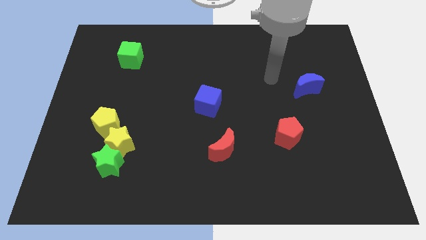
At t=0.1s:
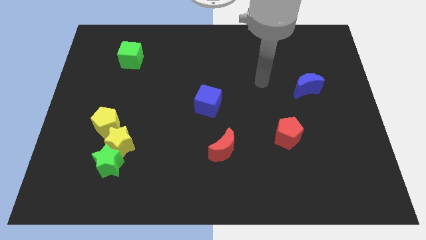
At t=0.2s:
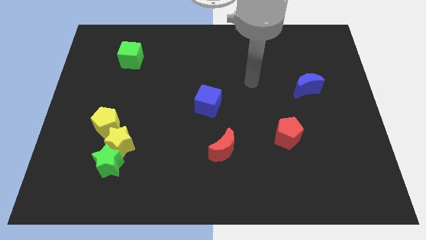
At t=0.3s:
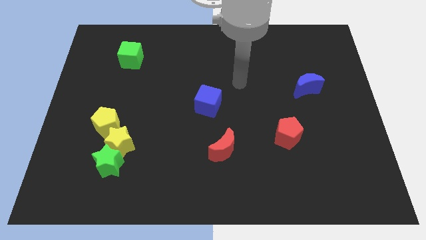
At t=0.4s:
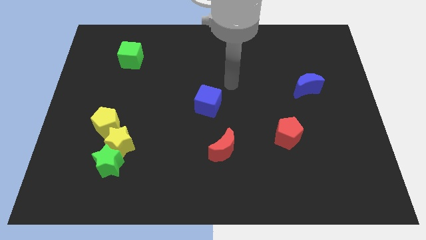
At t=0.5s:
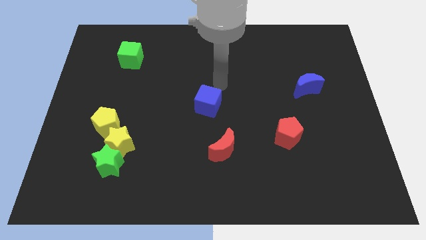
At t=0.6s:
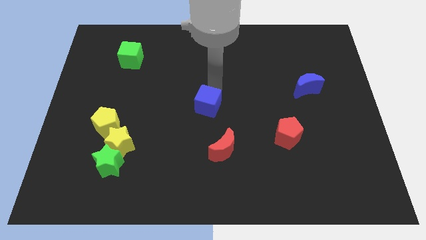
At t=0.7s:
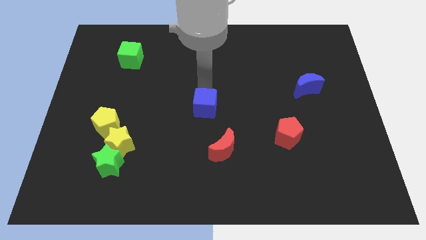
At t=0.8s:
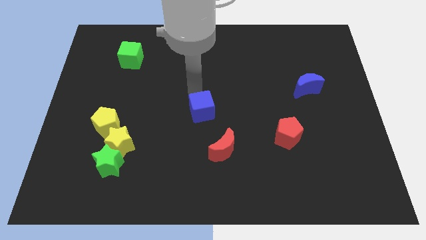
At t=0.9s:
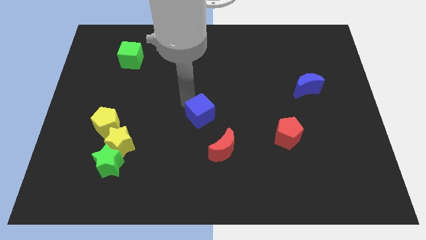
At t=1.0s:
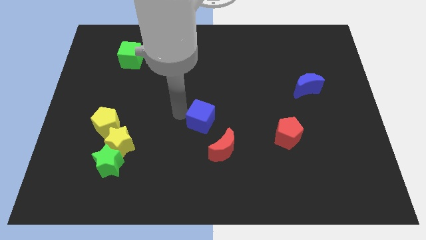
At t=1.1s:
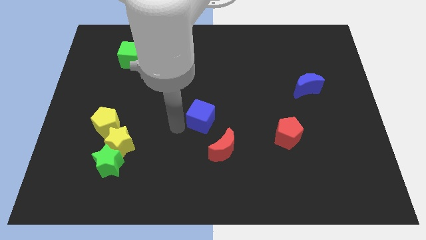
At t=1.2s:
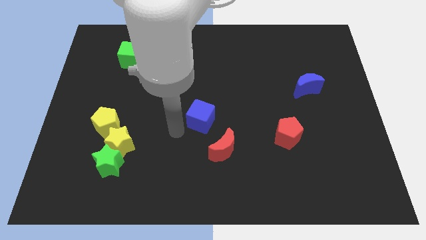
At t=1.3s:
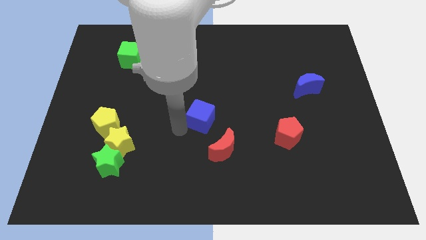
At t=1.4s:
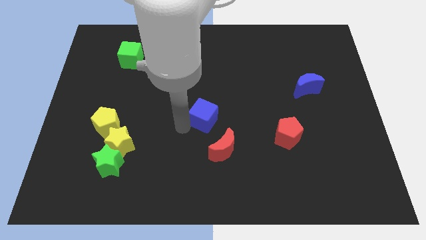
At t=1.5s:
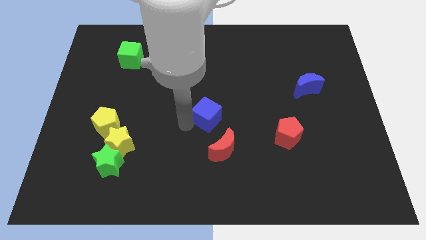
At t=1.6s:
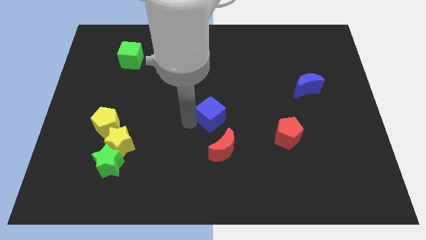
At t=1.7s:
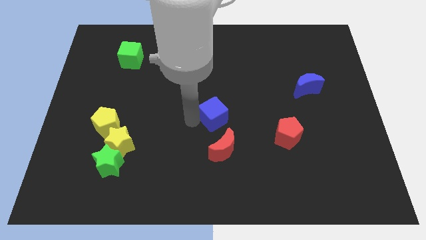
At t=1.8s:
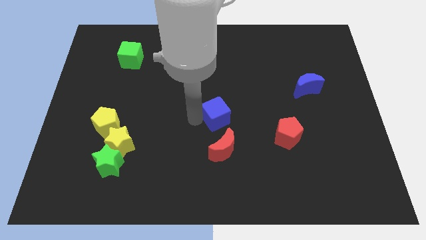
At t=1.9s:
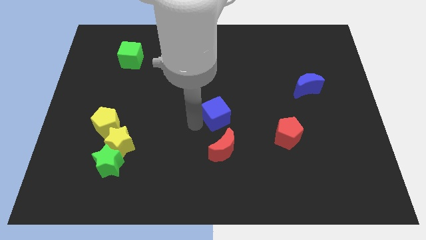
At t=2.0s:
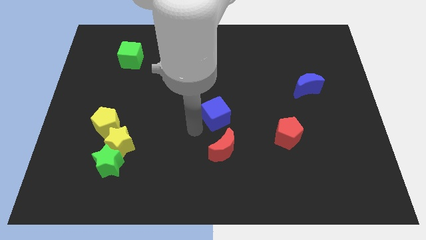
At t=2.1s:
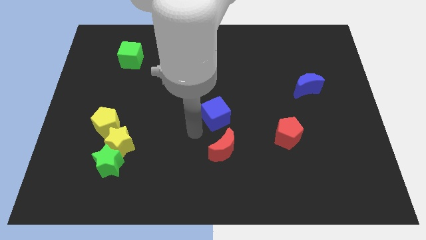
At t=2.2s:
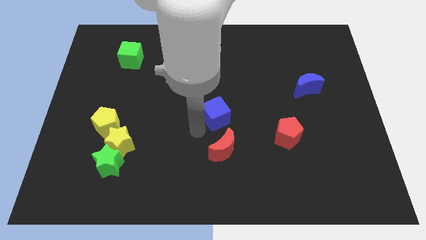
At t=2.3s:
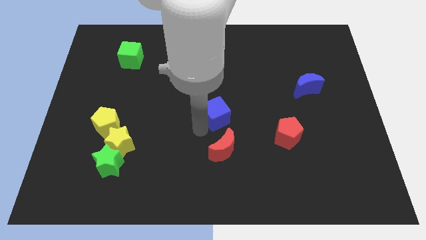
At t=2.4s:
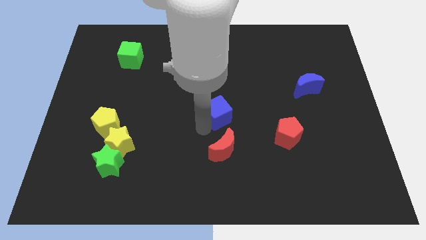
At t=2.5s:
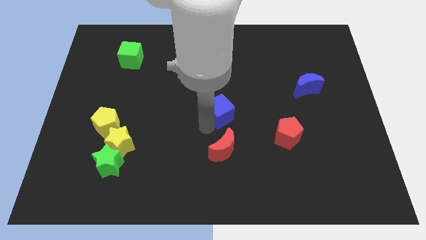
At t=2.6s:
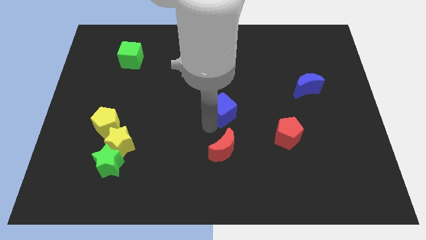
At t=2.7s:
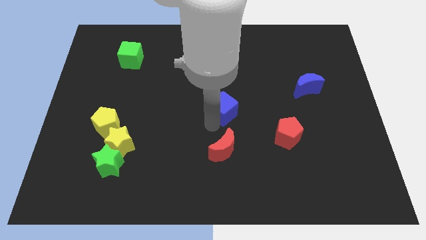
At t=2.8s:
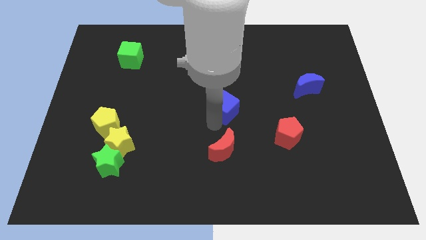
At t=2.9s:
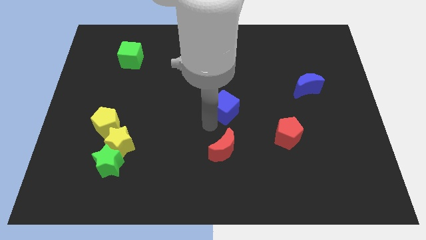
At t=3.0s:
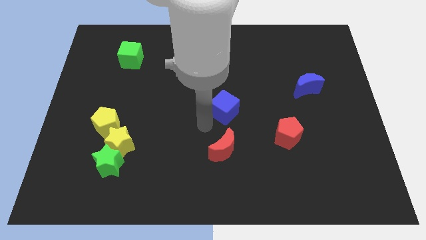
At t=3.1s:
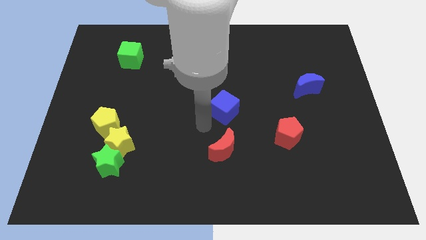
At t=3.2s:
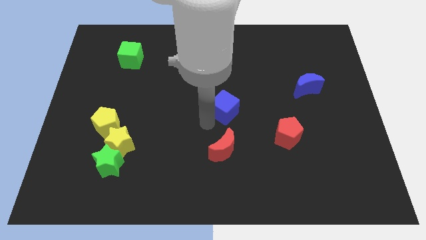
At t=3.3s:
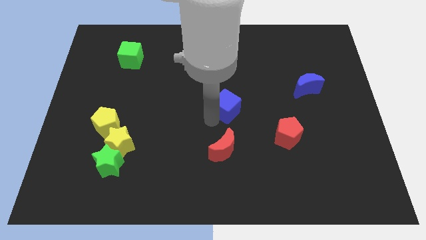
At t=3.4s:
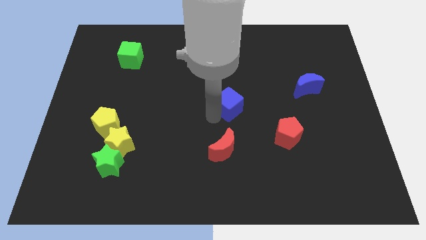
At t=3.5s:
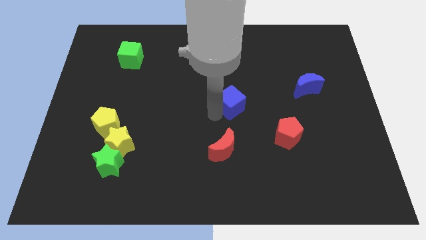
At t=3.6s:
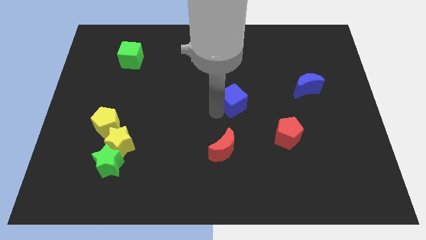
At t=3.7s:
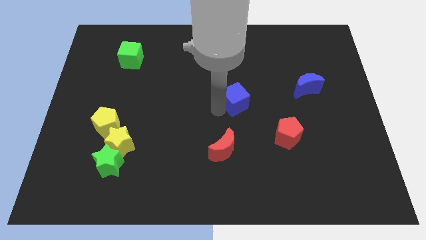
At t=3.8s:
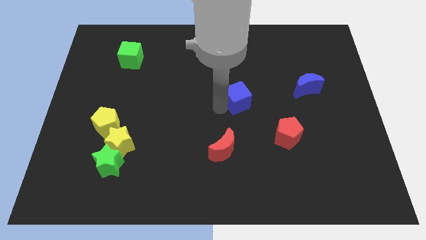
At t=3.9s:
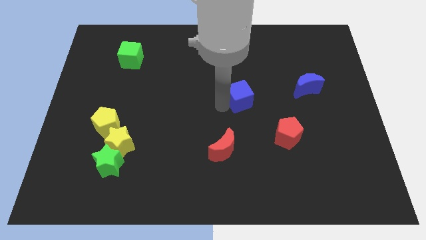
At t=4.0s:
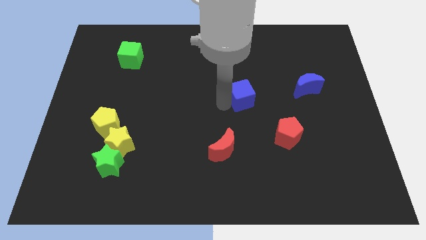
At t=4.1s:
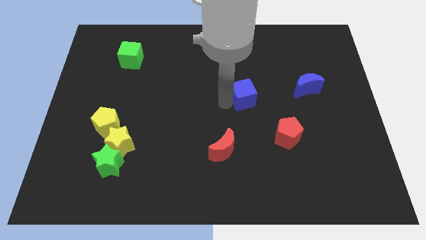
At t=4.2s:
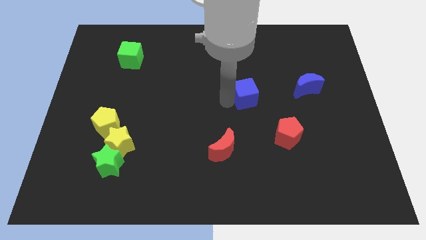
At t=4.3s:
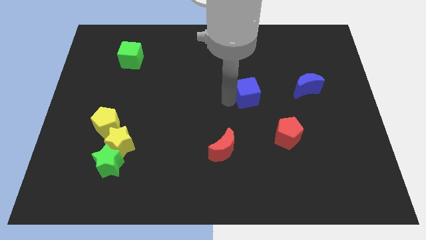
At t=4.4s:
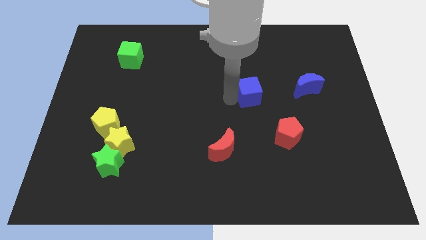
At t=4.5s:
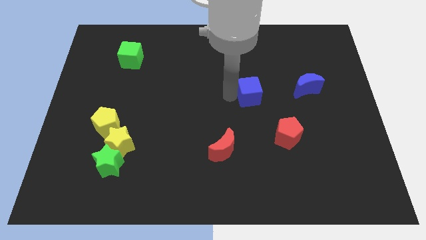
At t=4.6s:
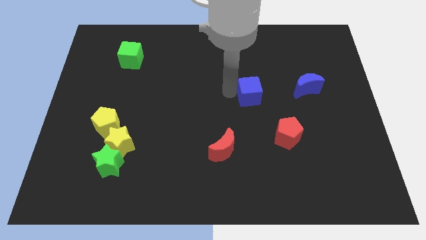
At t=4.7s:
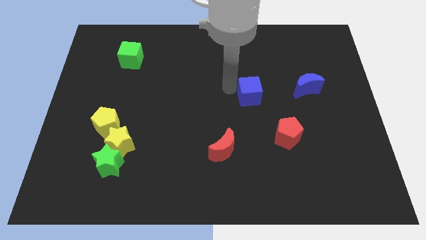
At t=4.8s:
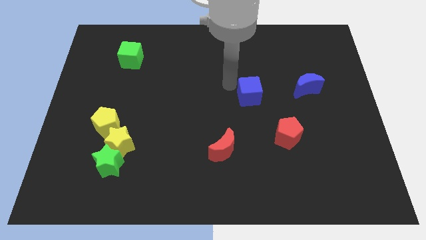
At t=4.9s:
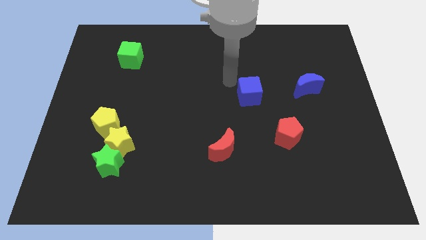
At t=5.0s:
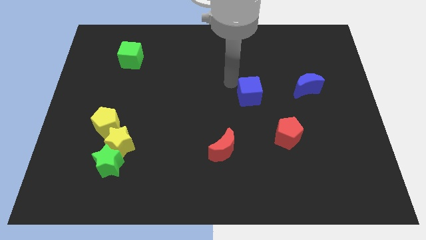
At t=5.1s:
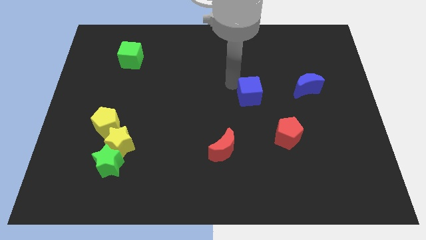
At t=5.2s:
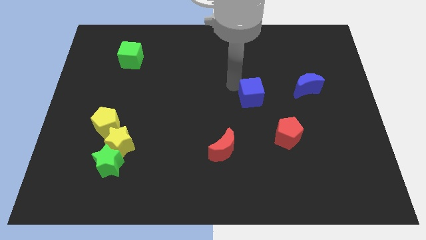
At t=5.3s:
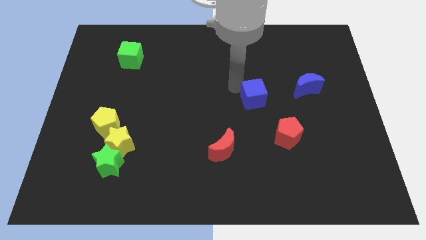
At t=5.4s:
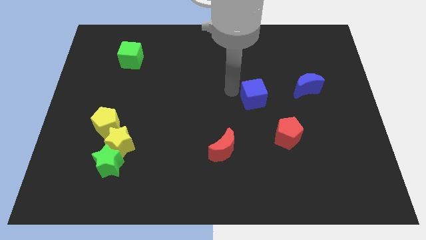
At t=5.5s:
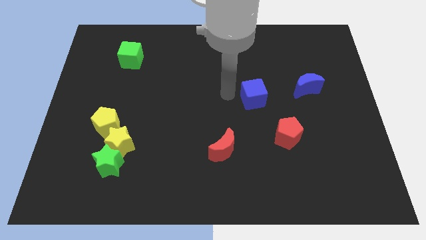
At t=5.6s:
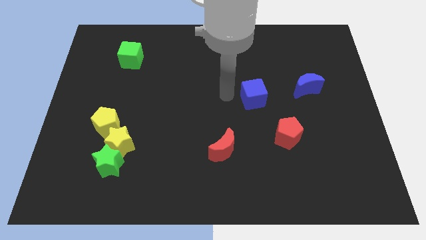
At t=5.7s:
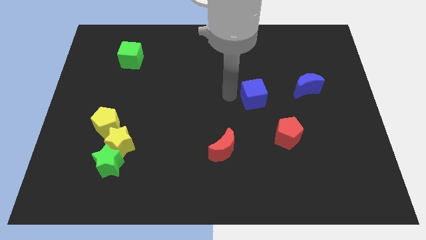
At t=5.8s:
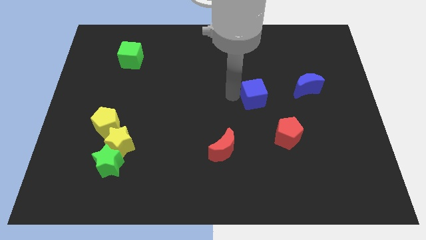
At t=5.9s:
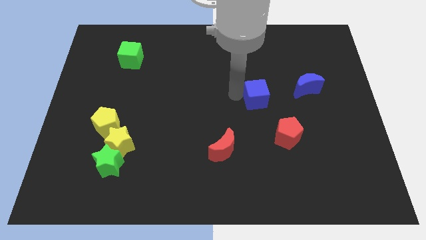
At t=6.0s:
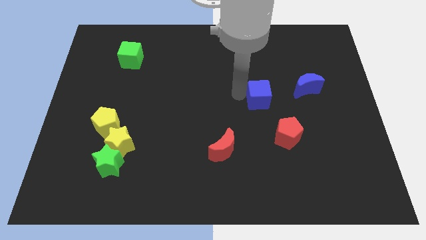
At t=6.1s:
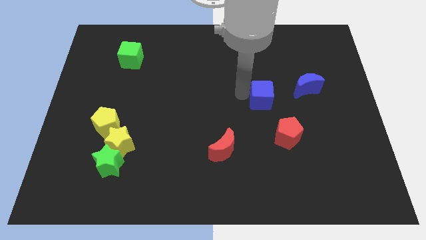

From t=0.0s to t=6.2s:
push the blue cube above the red pentagon

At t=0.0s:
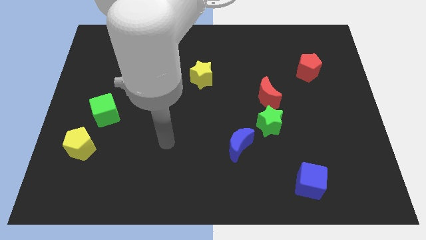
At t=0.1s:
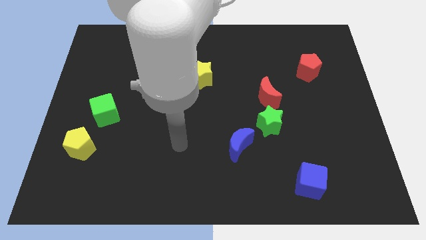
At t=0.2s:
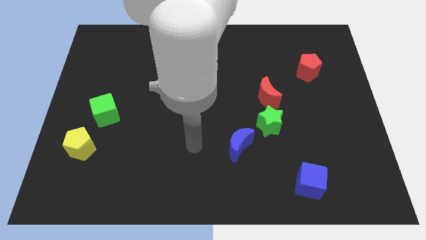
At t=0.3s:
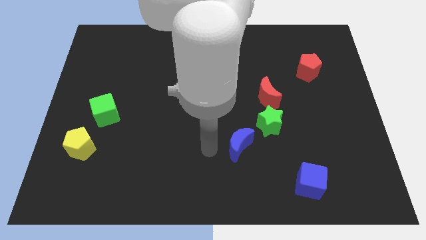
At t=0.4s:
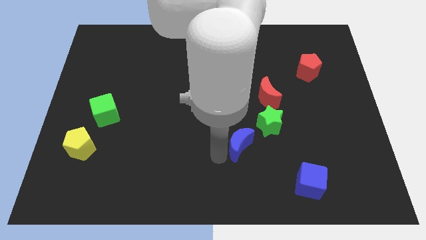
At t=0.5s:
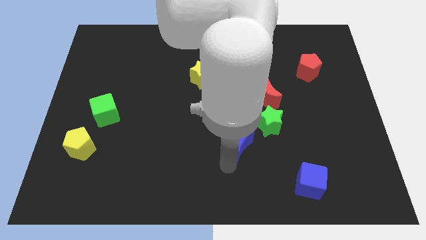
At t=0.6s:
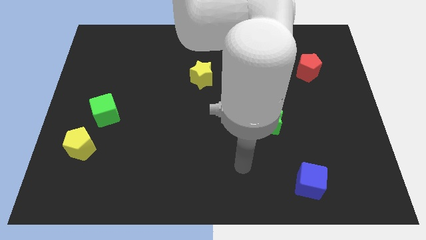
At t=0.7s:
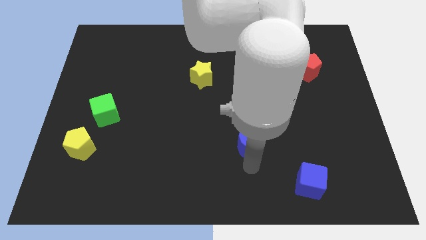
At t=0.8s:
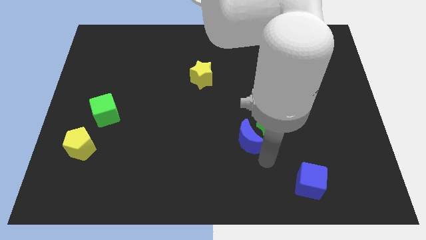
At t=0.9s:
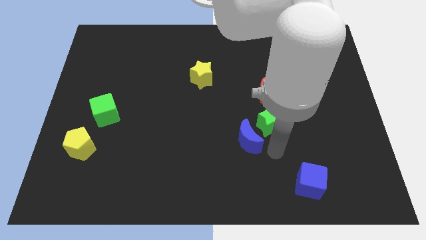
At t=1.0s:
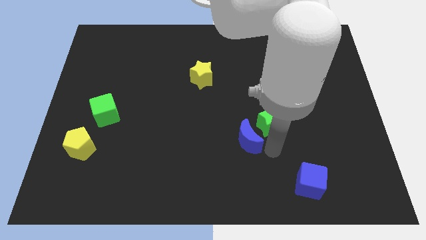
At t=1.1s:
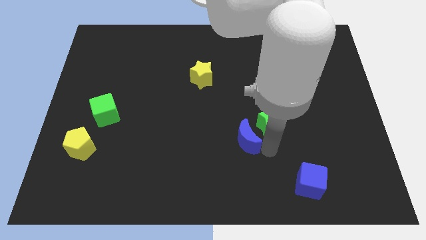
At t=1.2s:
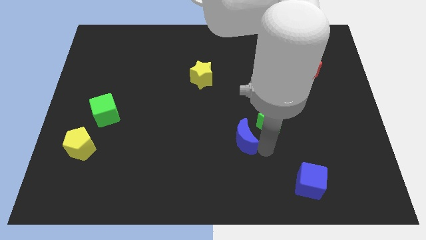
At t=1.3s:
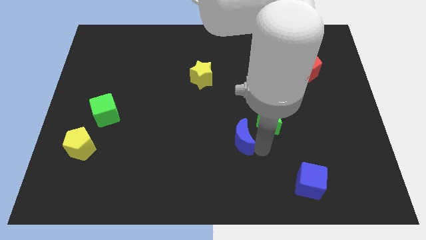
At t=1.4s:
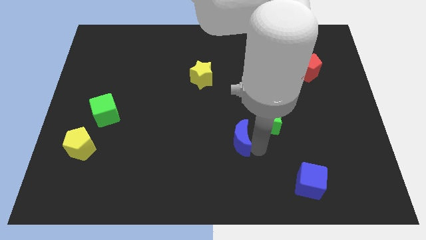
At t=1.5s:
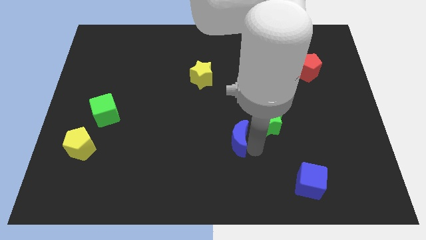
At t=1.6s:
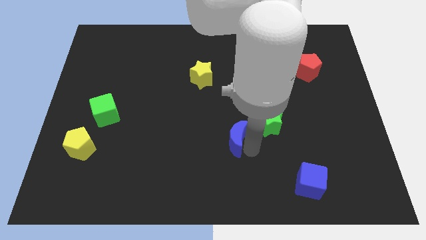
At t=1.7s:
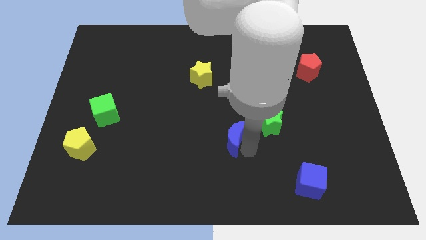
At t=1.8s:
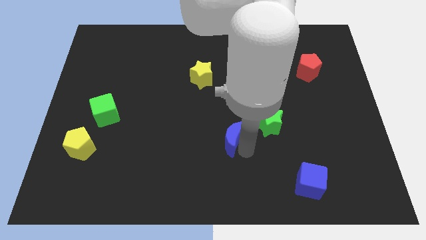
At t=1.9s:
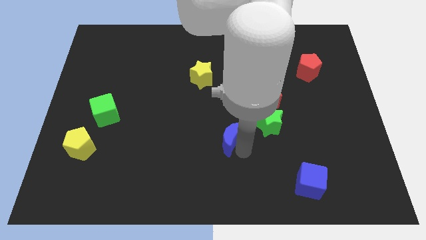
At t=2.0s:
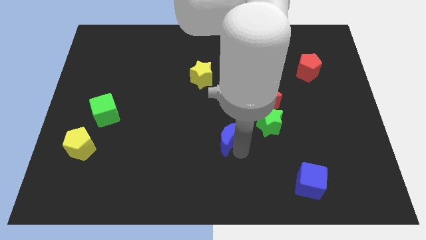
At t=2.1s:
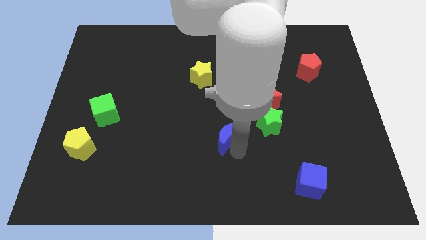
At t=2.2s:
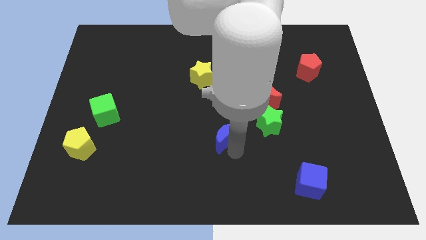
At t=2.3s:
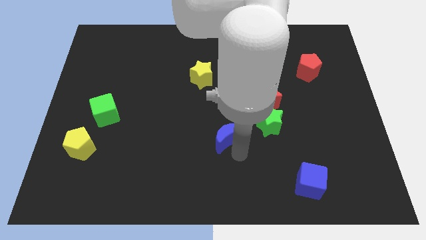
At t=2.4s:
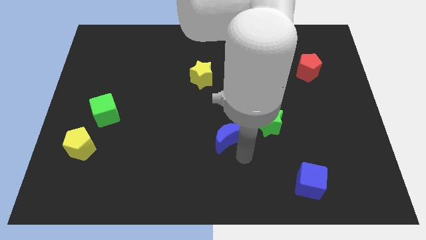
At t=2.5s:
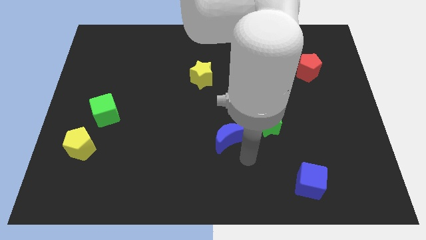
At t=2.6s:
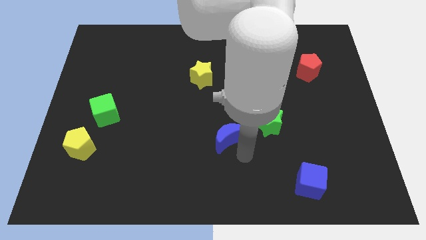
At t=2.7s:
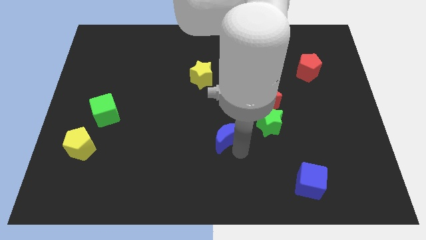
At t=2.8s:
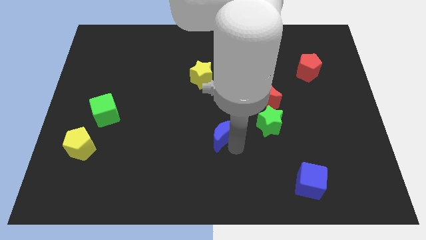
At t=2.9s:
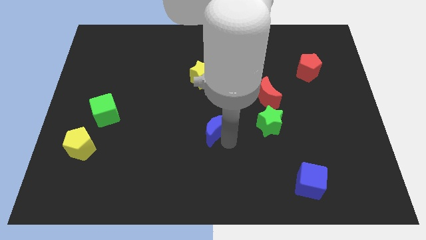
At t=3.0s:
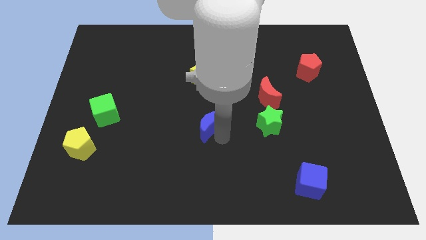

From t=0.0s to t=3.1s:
push the blue moon below the yellow star
